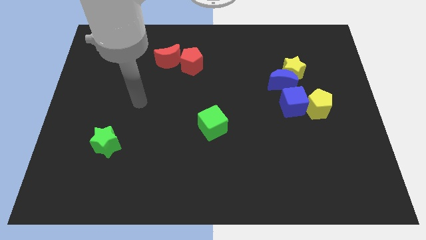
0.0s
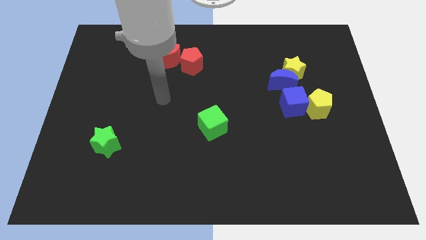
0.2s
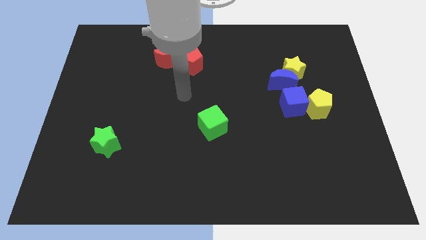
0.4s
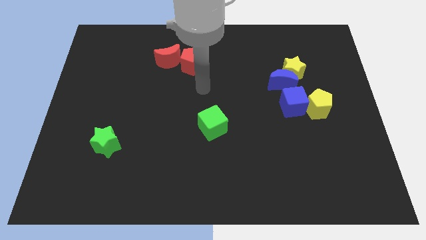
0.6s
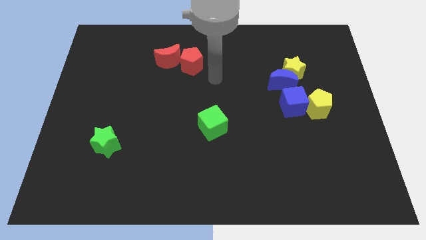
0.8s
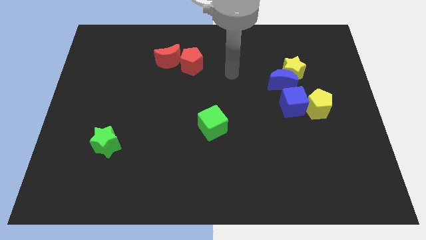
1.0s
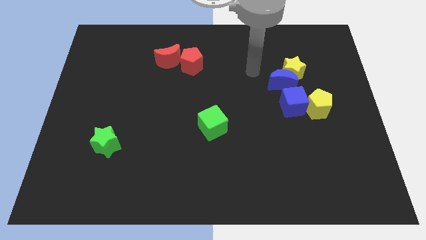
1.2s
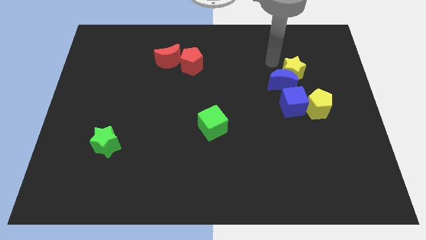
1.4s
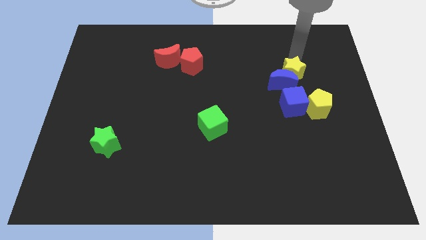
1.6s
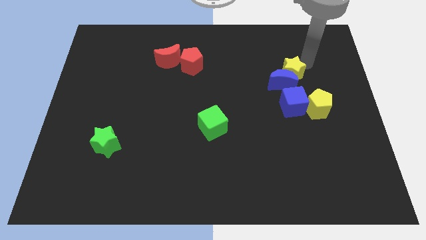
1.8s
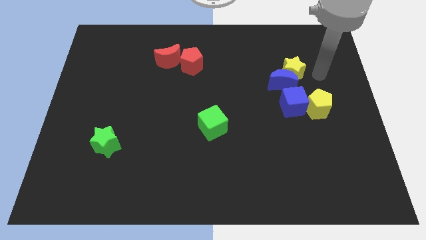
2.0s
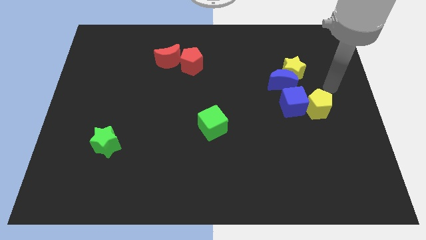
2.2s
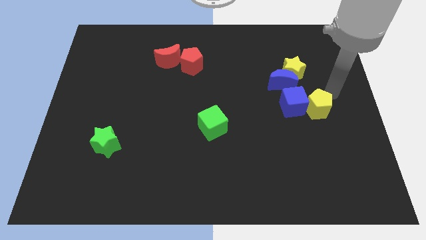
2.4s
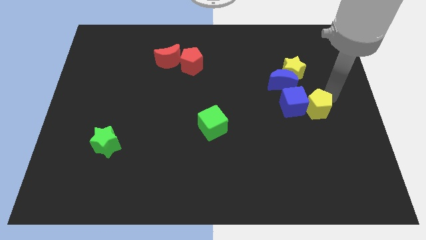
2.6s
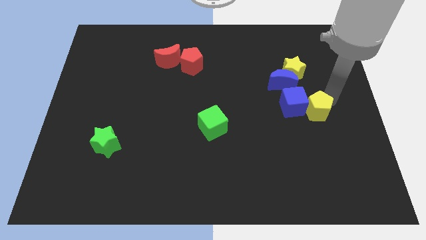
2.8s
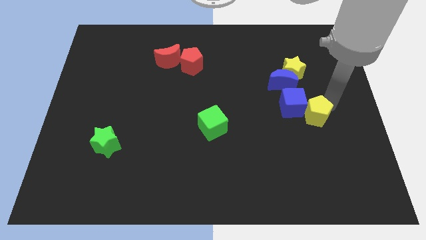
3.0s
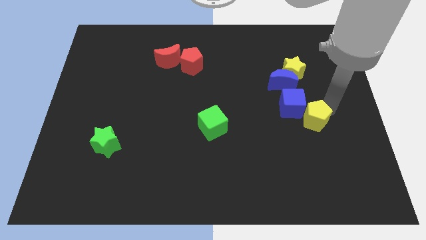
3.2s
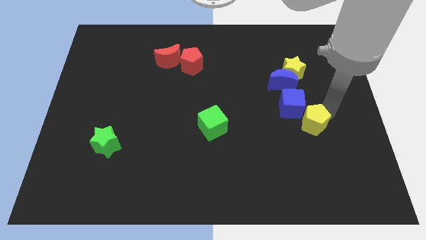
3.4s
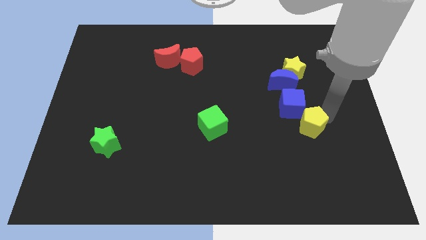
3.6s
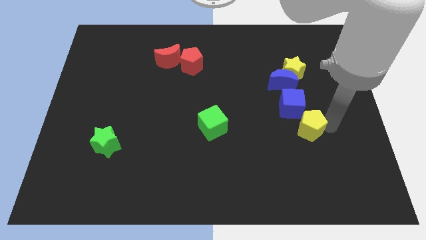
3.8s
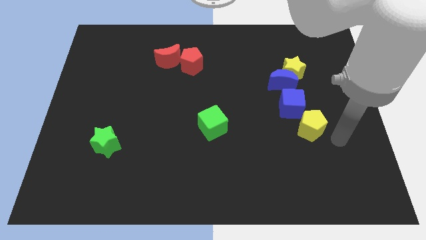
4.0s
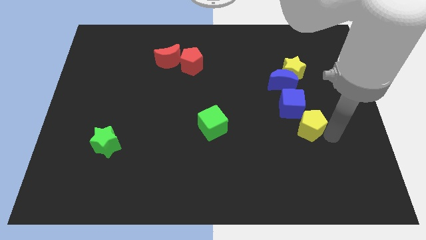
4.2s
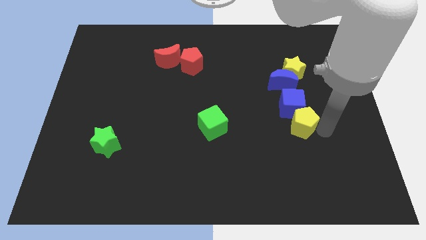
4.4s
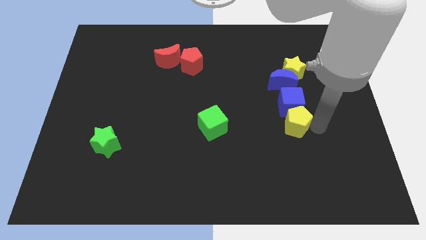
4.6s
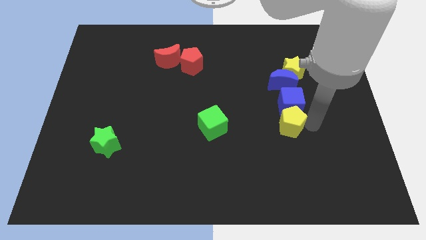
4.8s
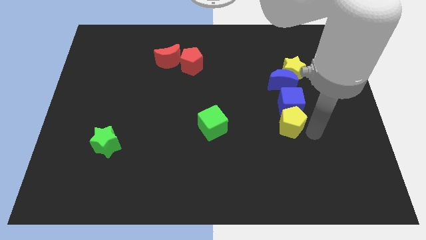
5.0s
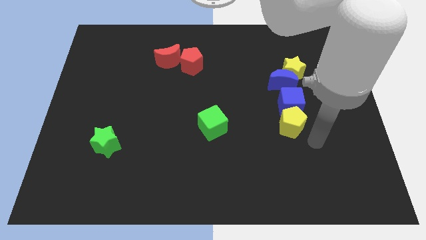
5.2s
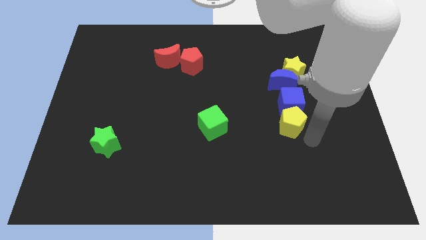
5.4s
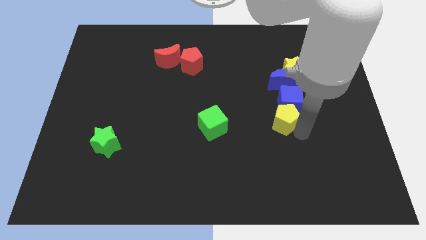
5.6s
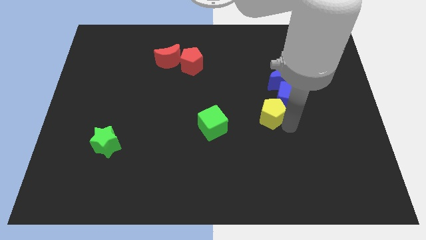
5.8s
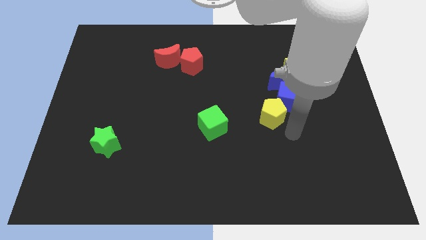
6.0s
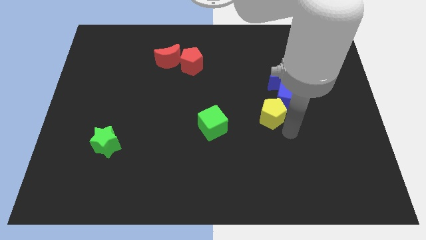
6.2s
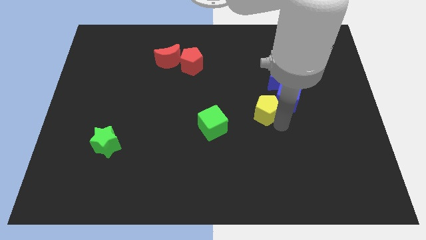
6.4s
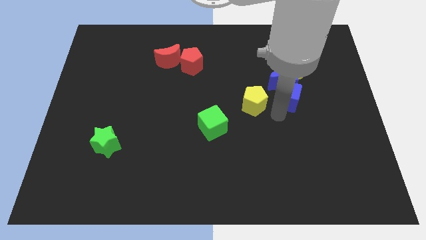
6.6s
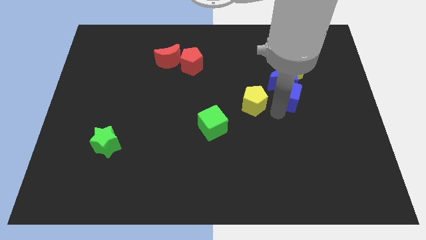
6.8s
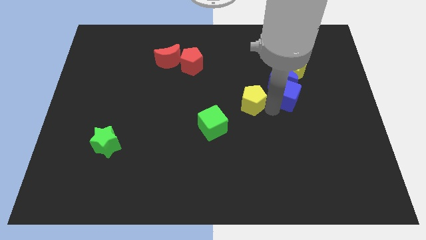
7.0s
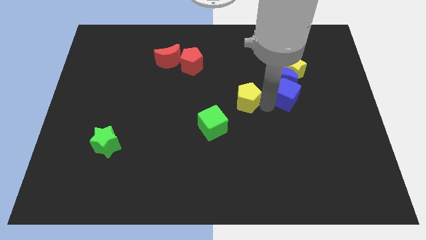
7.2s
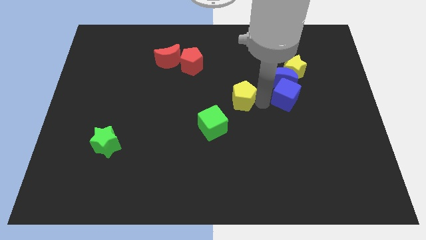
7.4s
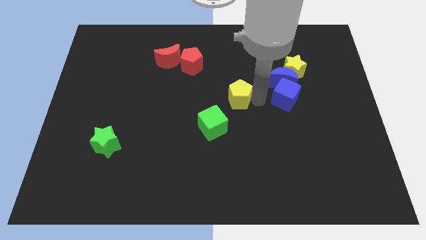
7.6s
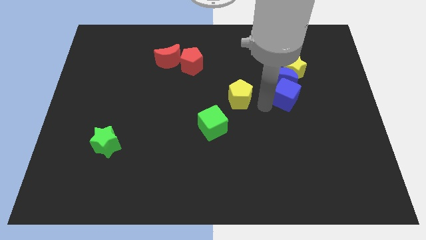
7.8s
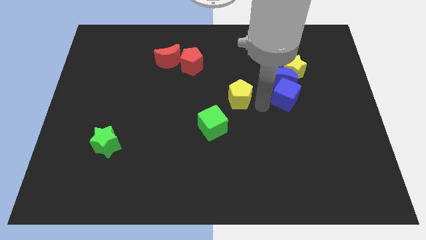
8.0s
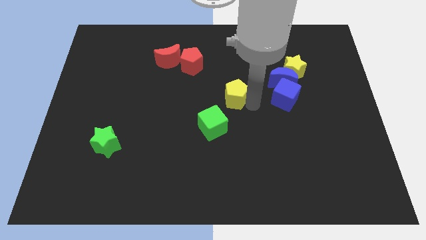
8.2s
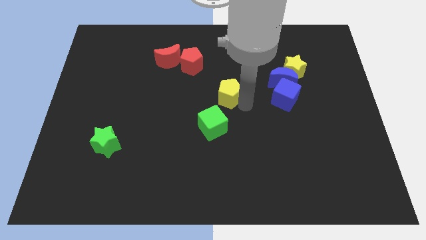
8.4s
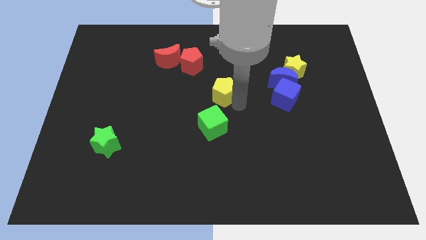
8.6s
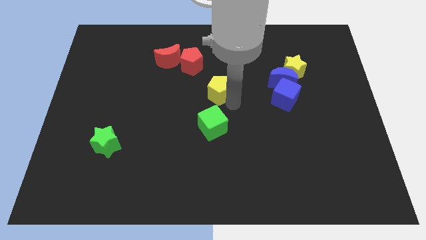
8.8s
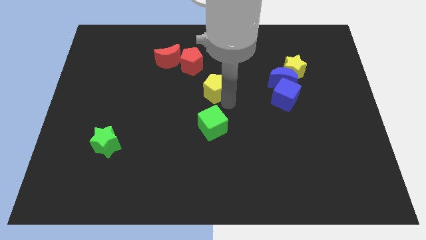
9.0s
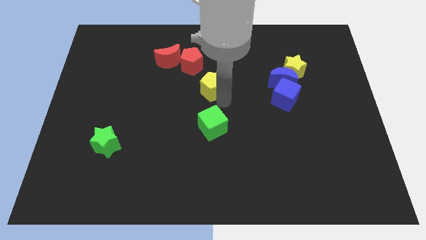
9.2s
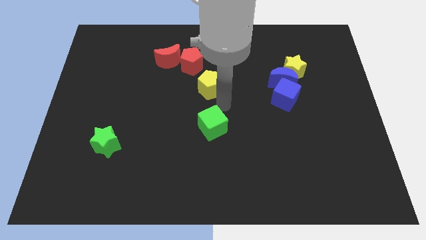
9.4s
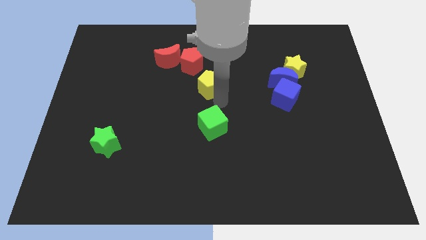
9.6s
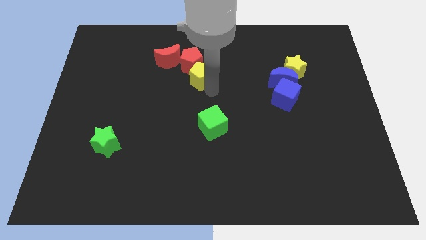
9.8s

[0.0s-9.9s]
slide the yellow pentagon to the red pentagon

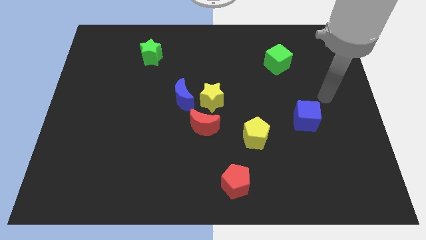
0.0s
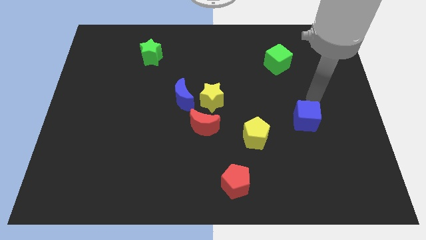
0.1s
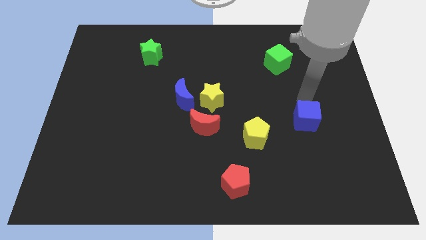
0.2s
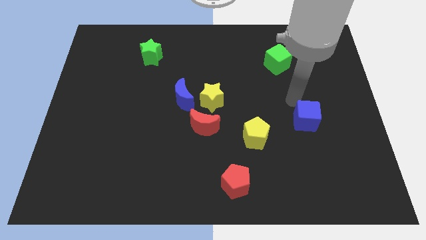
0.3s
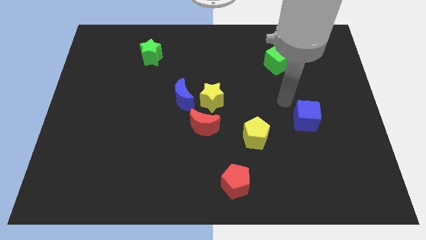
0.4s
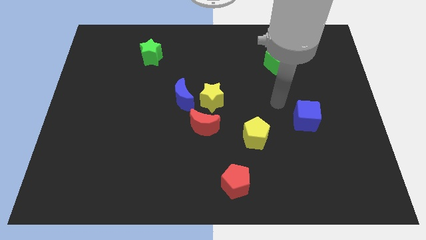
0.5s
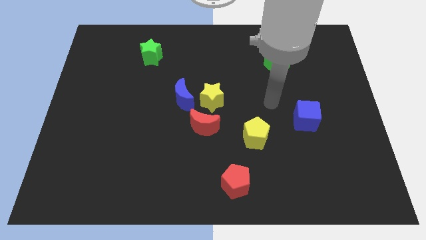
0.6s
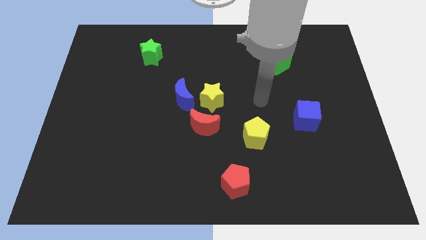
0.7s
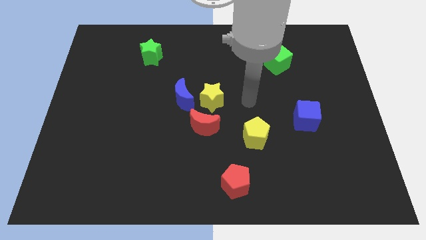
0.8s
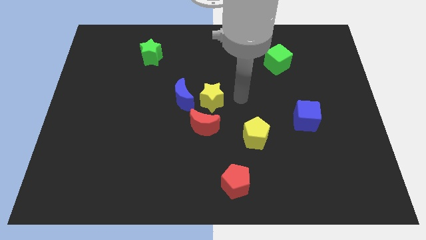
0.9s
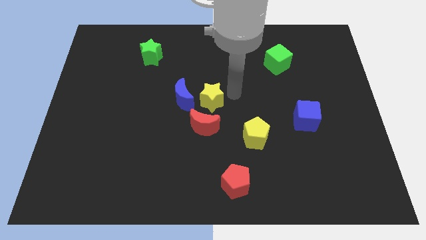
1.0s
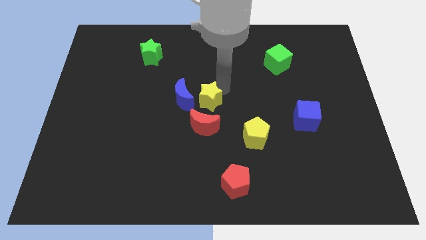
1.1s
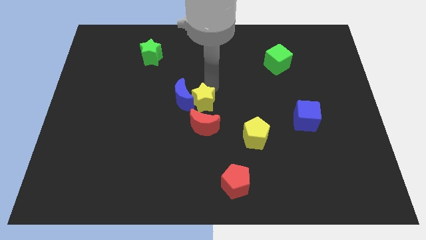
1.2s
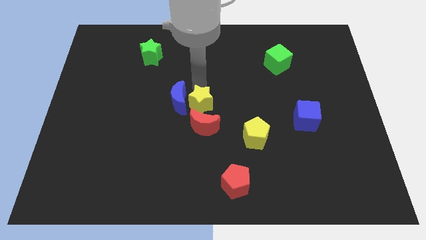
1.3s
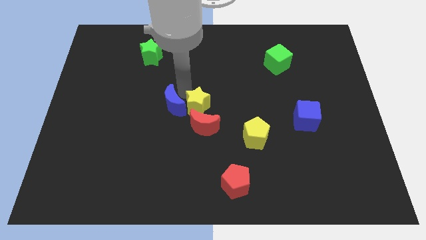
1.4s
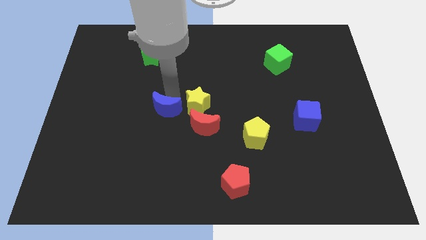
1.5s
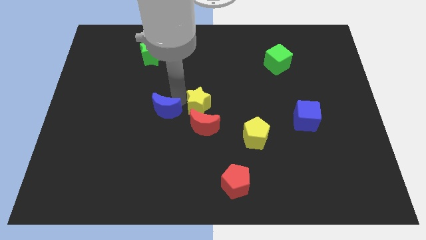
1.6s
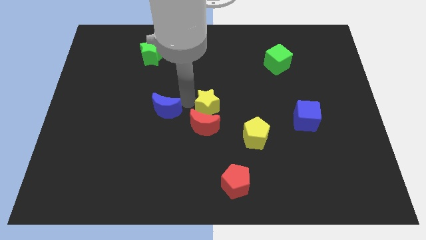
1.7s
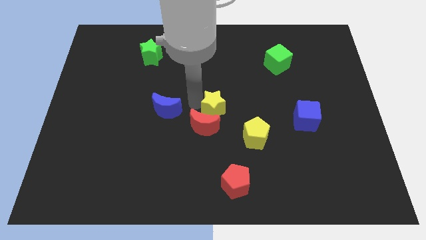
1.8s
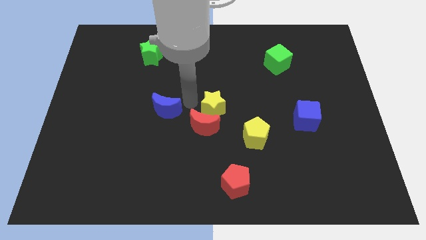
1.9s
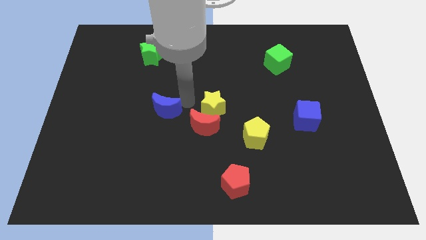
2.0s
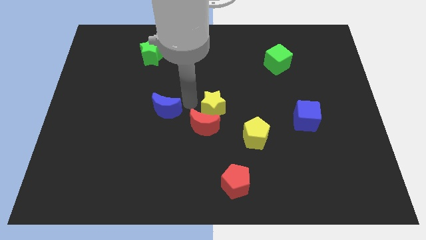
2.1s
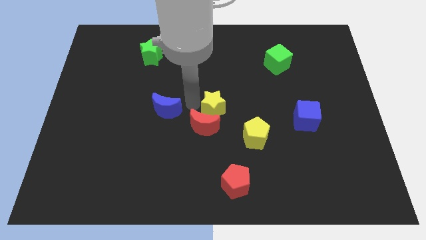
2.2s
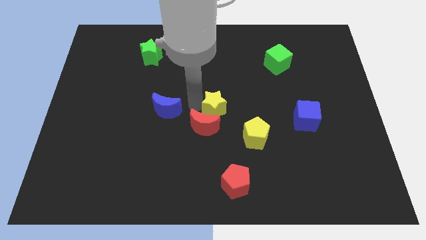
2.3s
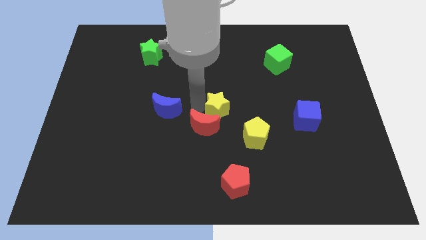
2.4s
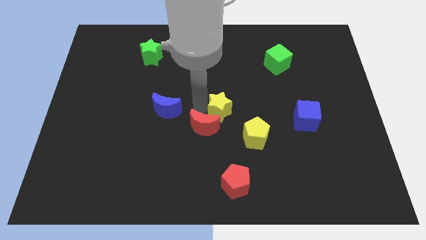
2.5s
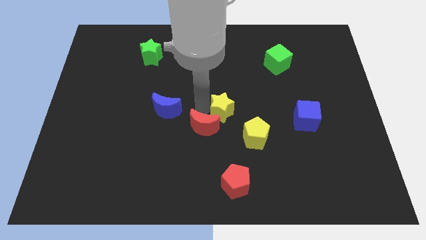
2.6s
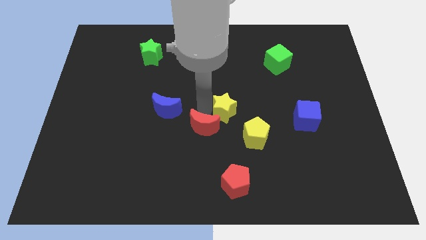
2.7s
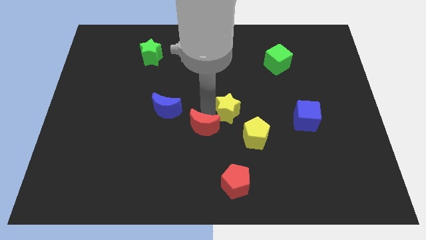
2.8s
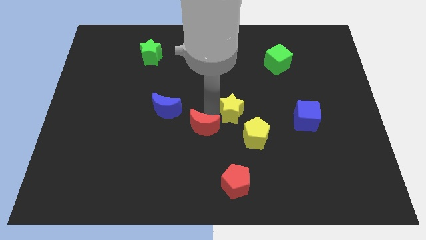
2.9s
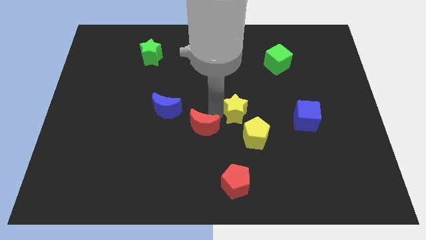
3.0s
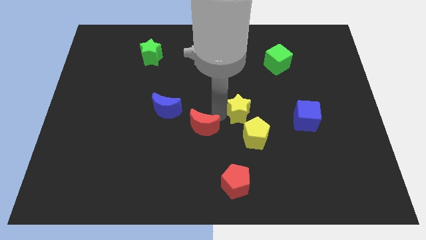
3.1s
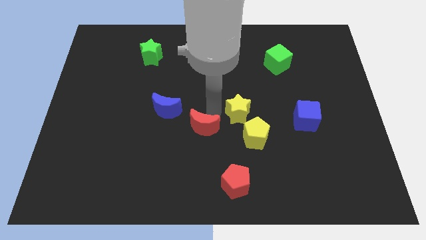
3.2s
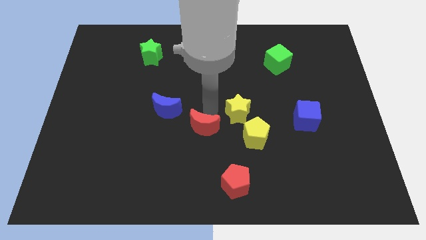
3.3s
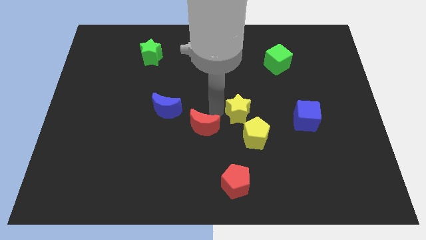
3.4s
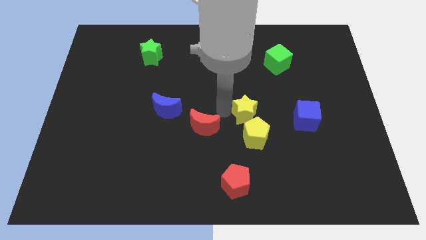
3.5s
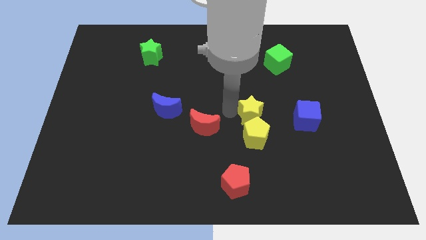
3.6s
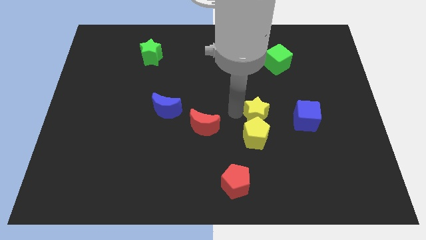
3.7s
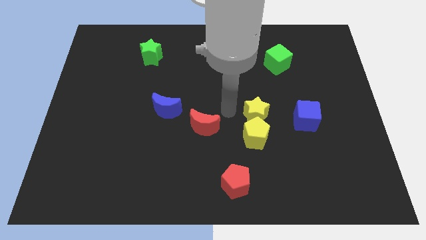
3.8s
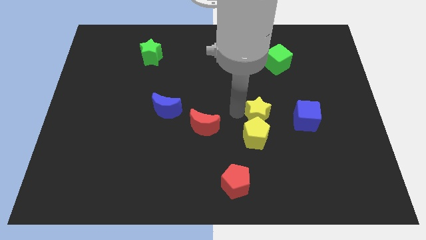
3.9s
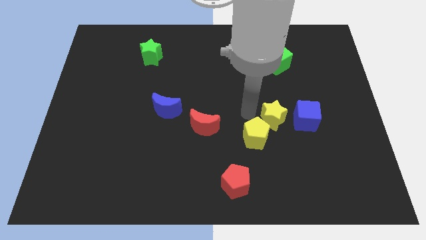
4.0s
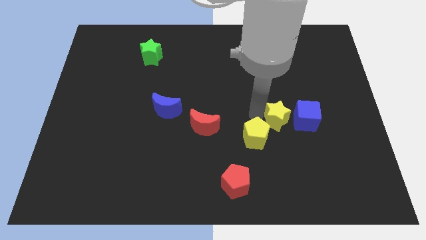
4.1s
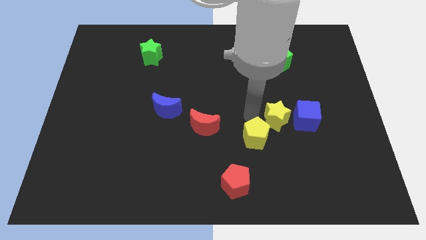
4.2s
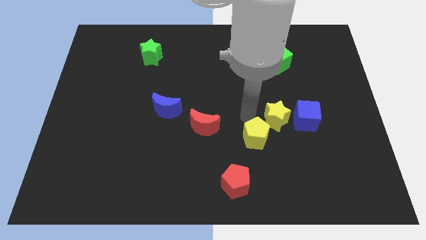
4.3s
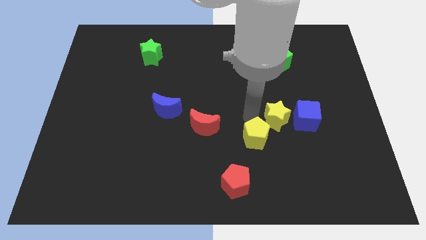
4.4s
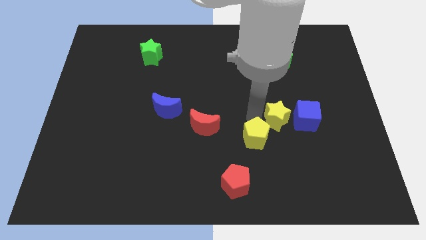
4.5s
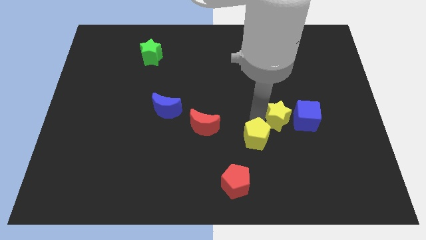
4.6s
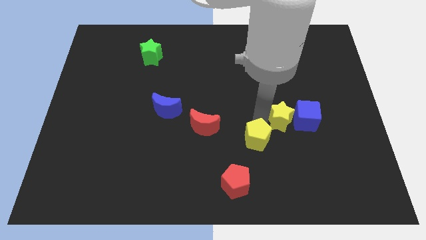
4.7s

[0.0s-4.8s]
put the yellow star to the blue cube
